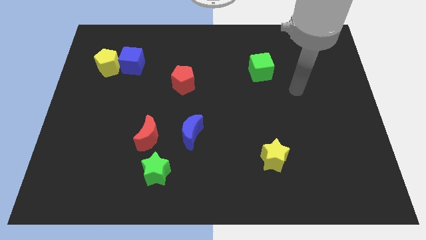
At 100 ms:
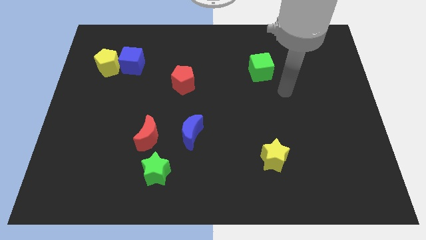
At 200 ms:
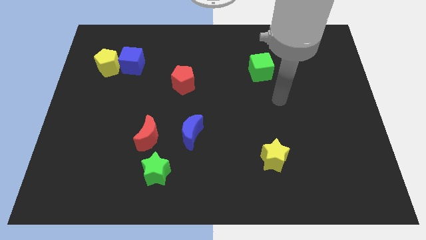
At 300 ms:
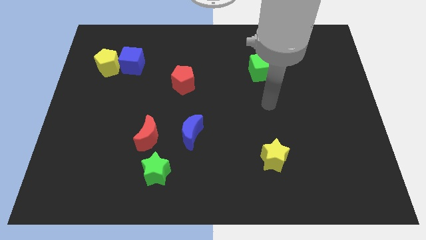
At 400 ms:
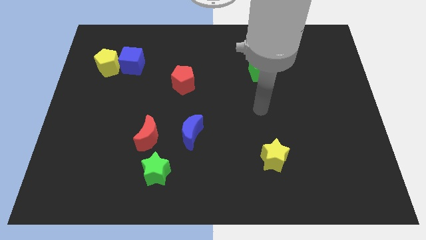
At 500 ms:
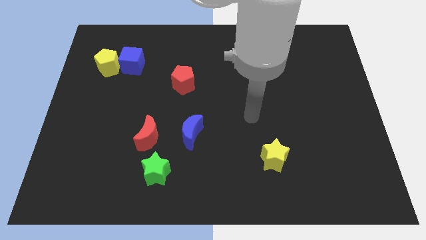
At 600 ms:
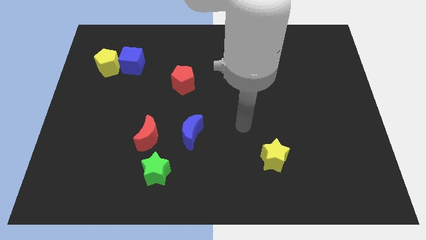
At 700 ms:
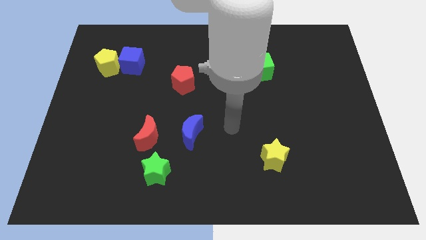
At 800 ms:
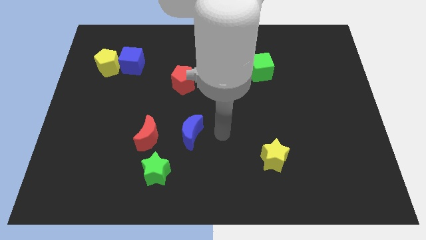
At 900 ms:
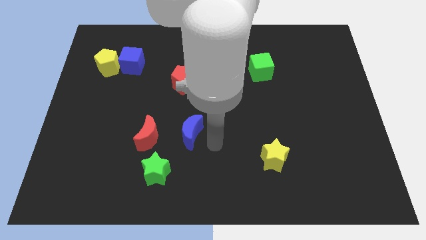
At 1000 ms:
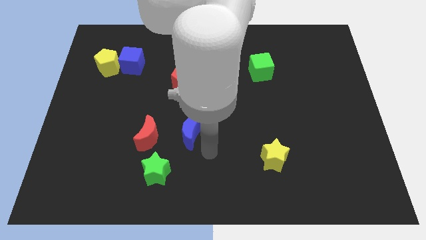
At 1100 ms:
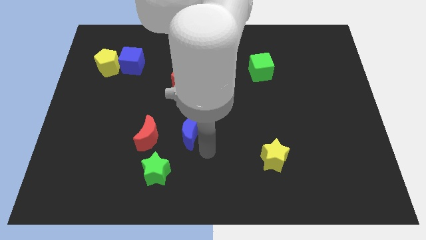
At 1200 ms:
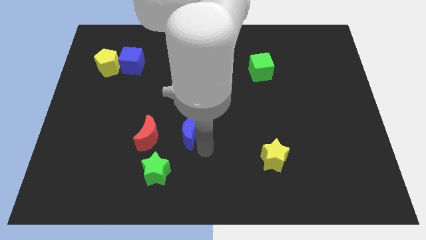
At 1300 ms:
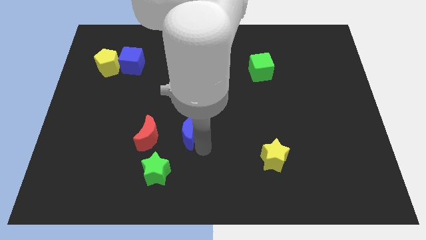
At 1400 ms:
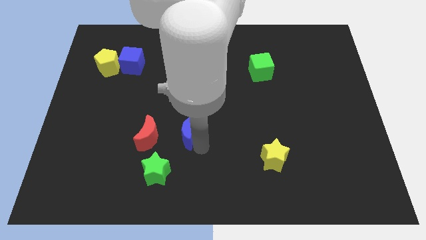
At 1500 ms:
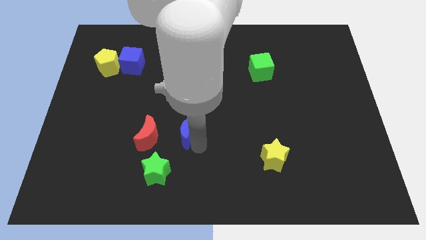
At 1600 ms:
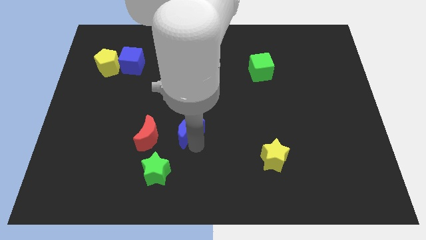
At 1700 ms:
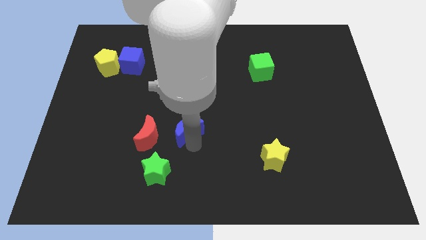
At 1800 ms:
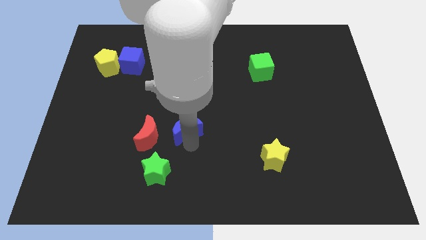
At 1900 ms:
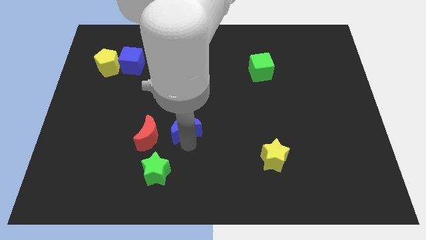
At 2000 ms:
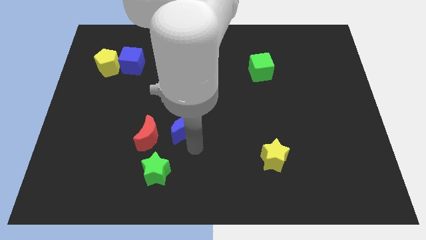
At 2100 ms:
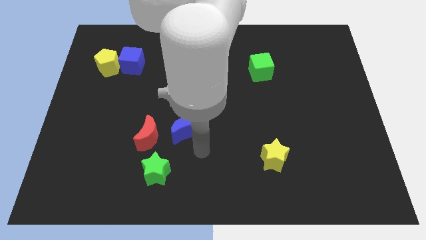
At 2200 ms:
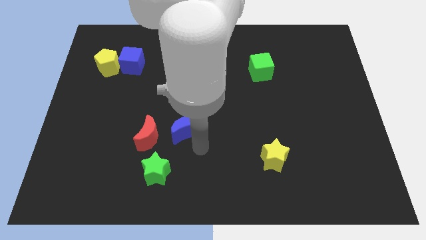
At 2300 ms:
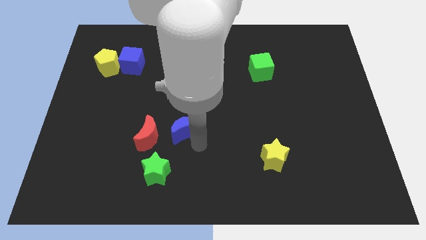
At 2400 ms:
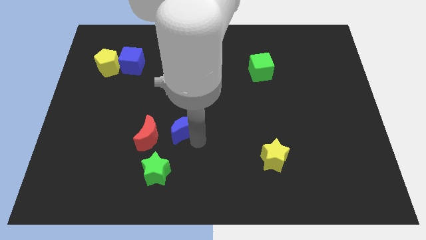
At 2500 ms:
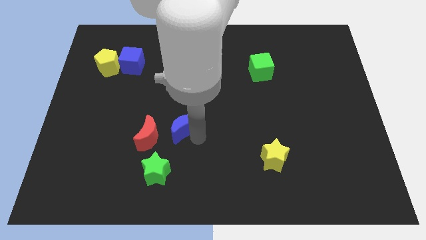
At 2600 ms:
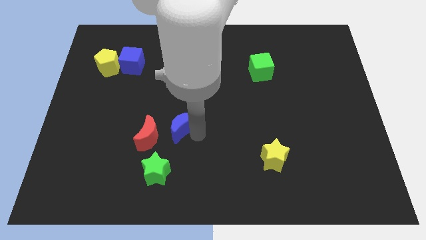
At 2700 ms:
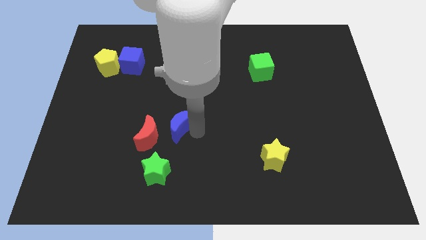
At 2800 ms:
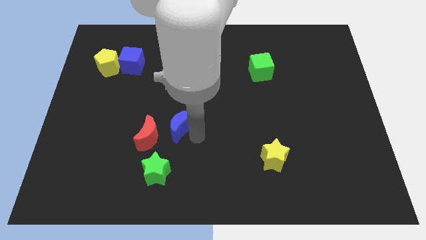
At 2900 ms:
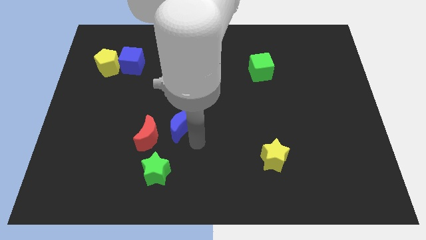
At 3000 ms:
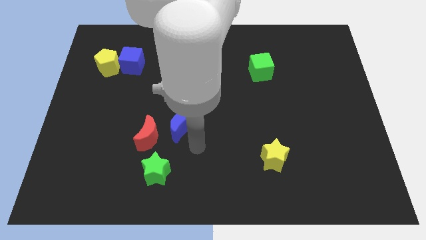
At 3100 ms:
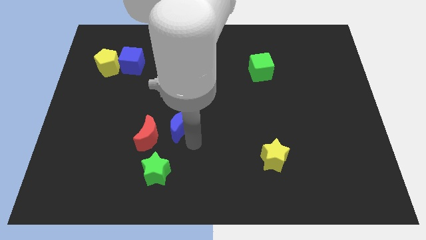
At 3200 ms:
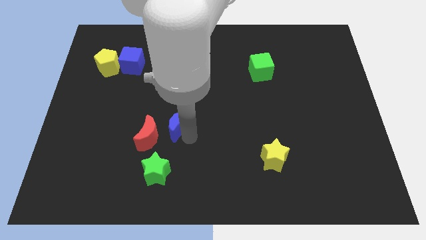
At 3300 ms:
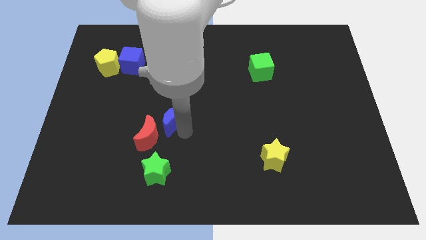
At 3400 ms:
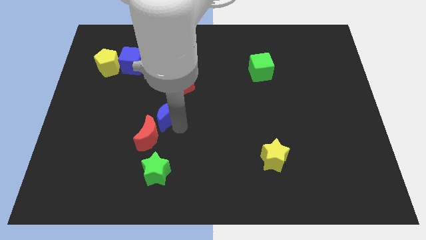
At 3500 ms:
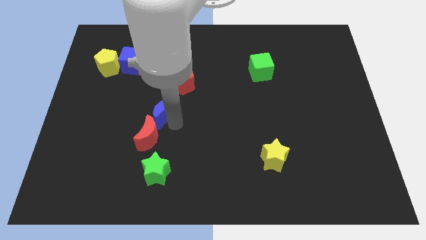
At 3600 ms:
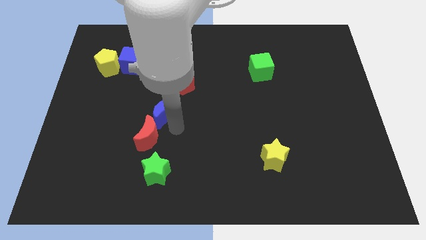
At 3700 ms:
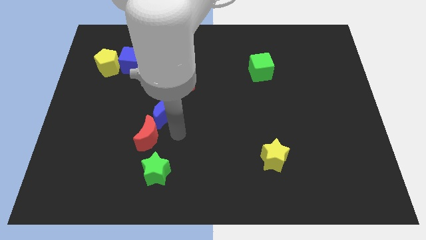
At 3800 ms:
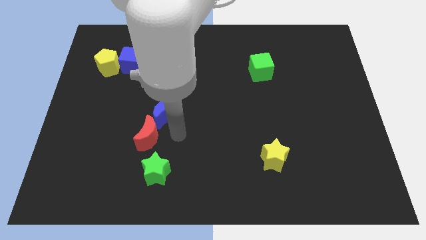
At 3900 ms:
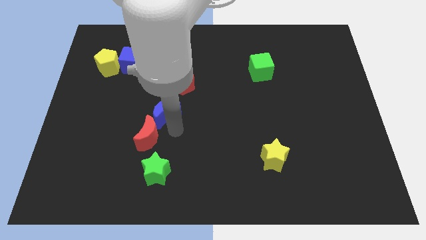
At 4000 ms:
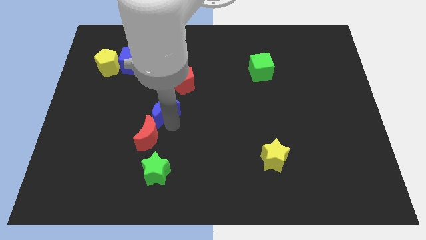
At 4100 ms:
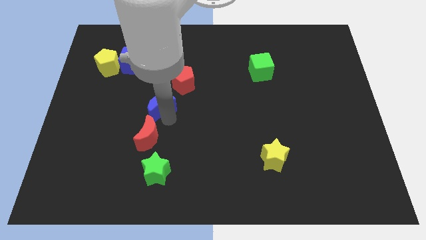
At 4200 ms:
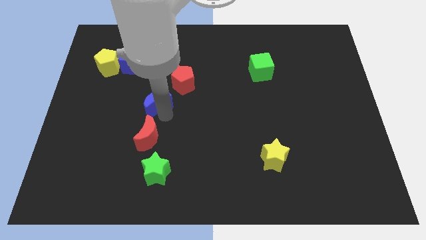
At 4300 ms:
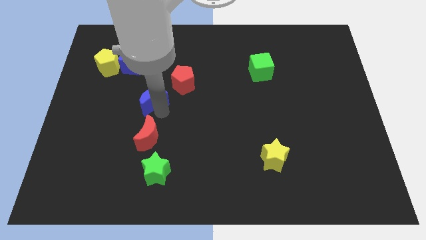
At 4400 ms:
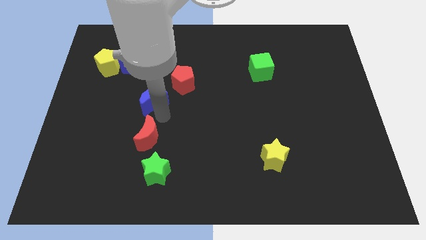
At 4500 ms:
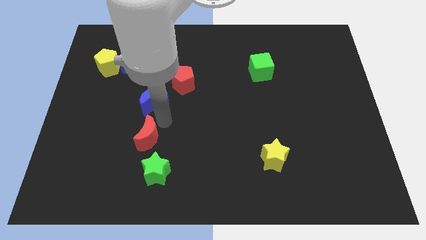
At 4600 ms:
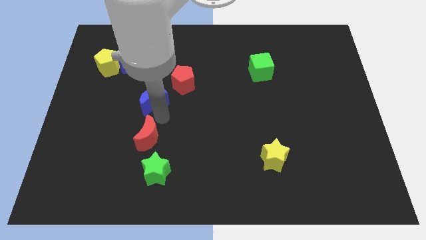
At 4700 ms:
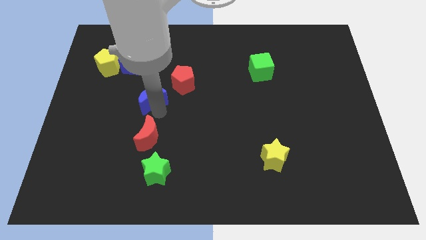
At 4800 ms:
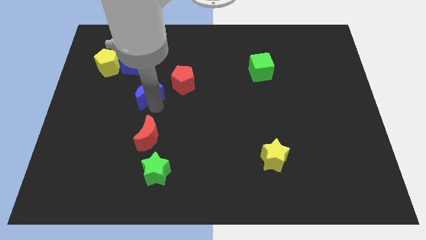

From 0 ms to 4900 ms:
put the blue moon to the left side of the red pentagon

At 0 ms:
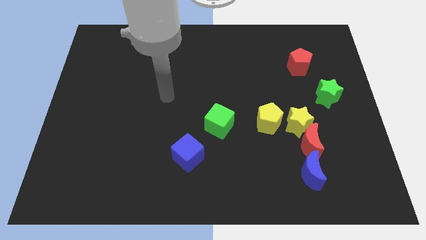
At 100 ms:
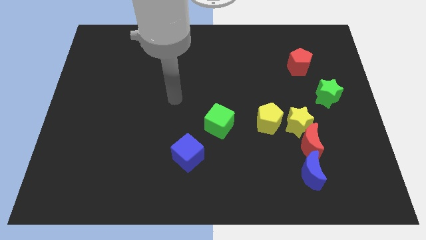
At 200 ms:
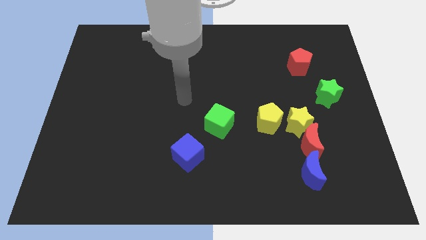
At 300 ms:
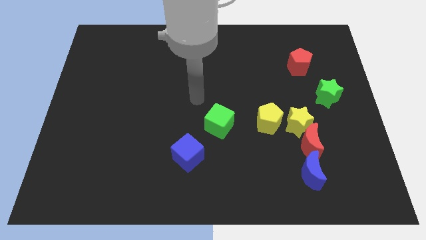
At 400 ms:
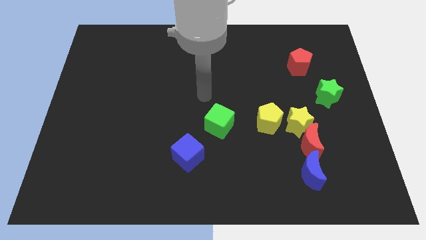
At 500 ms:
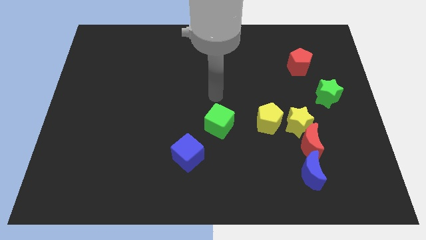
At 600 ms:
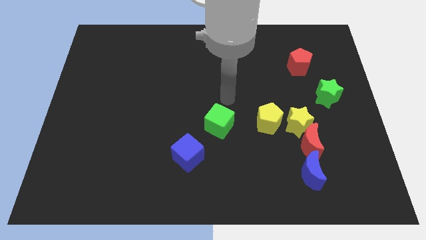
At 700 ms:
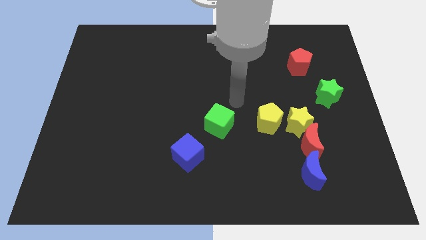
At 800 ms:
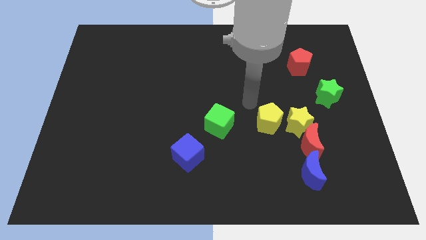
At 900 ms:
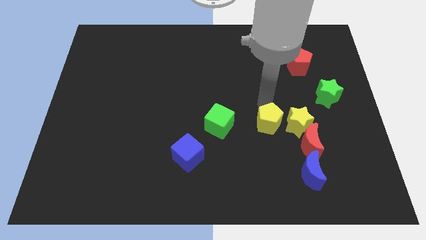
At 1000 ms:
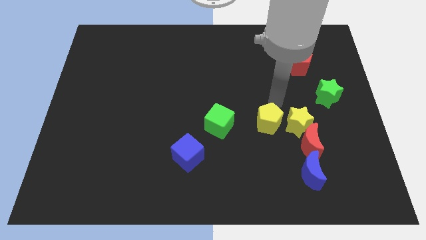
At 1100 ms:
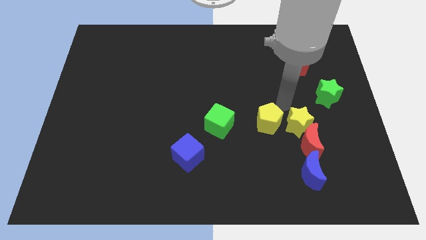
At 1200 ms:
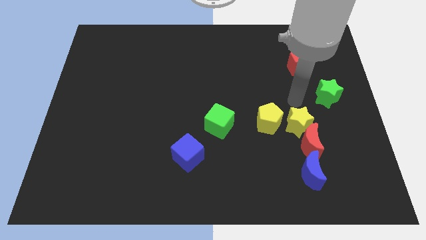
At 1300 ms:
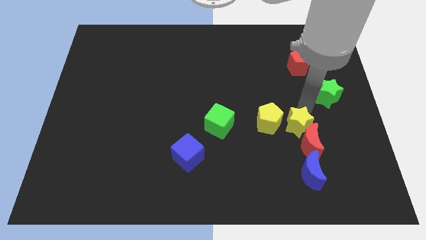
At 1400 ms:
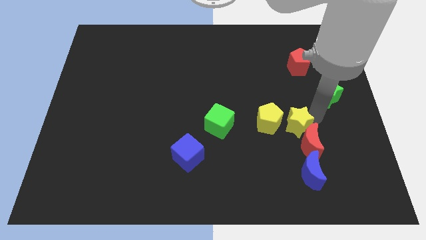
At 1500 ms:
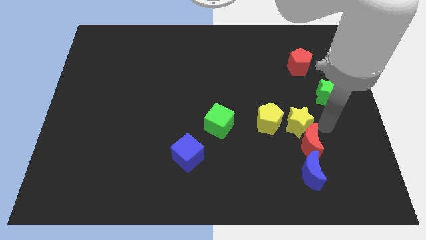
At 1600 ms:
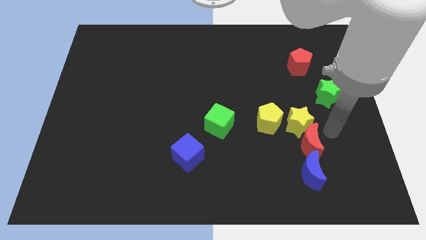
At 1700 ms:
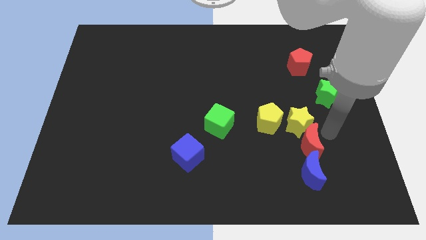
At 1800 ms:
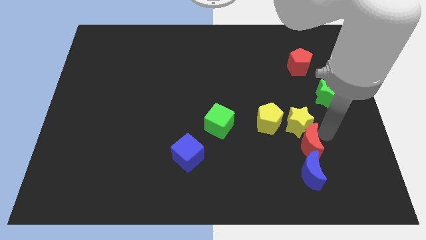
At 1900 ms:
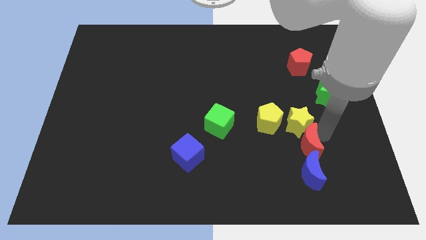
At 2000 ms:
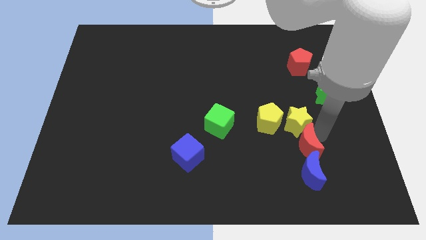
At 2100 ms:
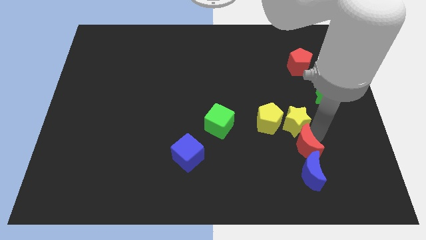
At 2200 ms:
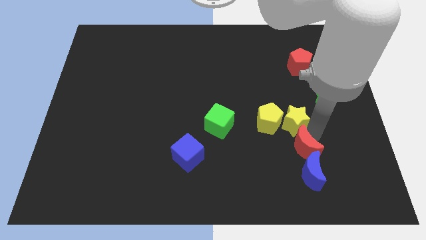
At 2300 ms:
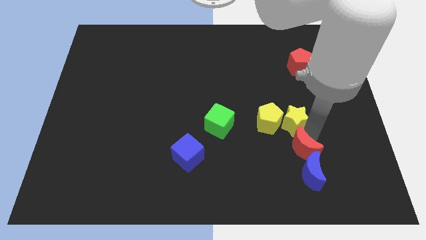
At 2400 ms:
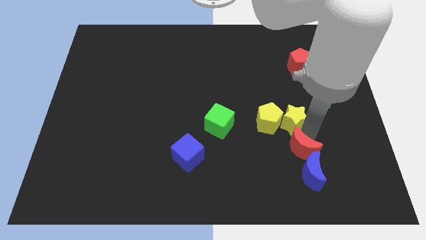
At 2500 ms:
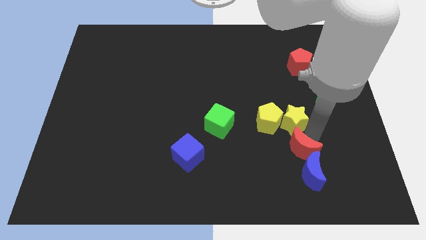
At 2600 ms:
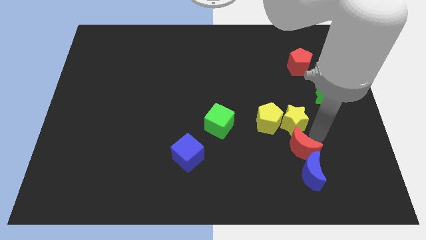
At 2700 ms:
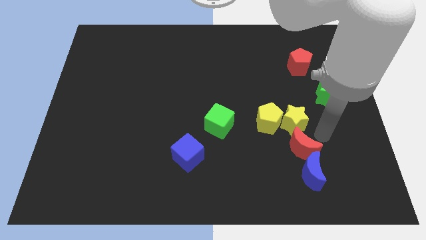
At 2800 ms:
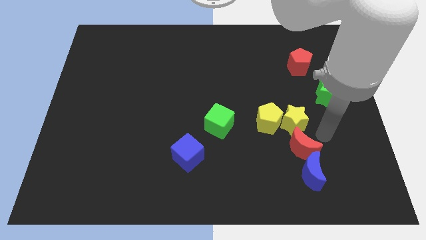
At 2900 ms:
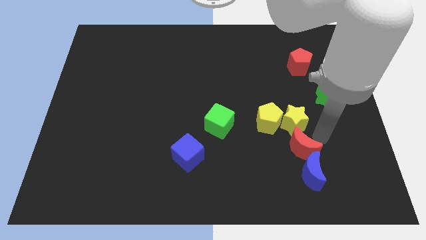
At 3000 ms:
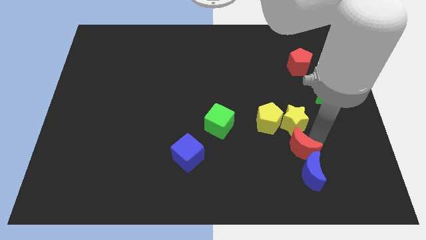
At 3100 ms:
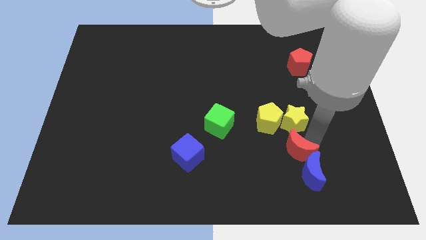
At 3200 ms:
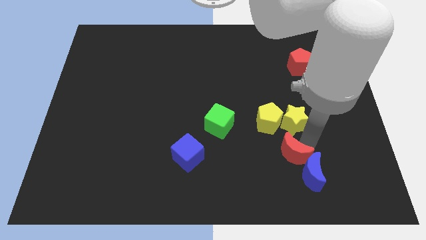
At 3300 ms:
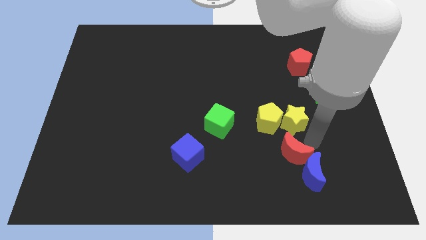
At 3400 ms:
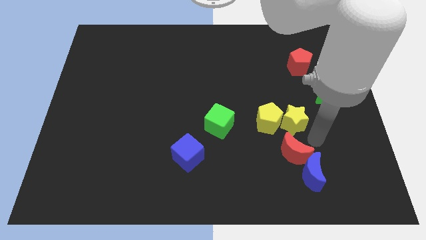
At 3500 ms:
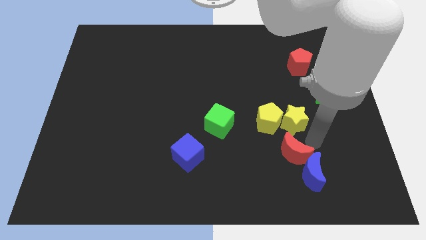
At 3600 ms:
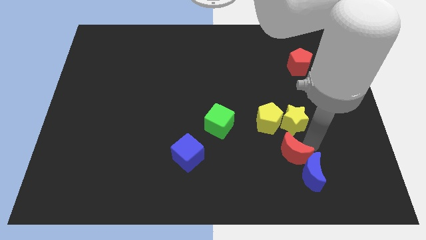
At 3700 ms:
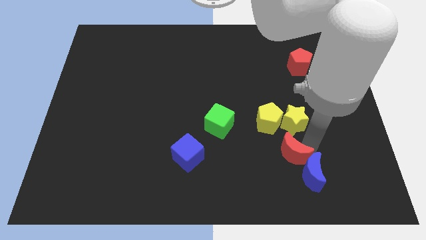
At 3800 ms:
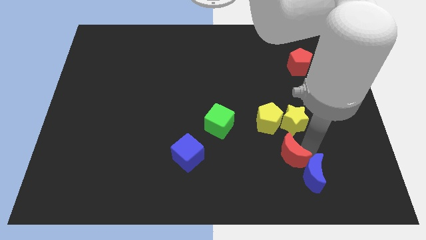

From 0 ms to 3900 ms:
put the red moon to the left side of the blue moon
